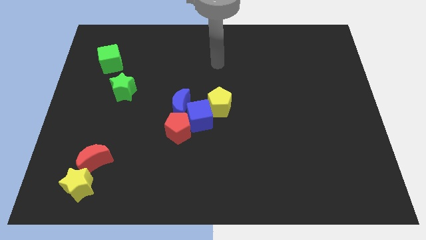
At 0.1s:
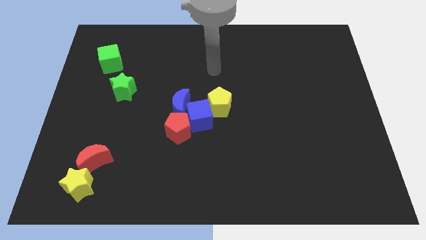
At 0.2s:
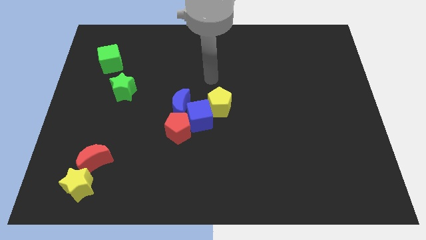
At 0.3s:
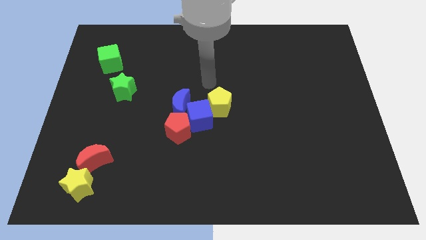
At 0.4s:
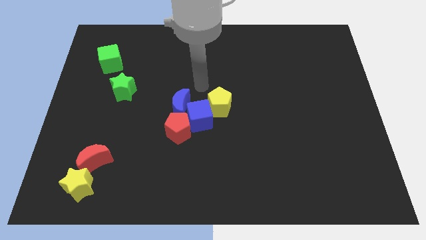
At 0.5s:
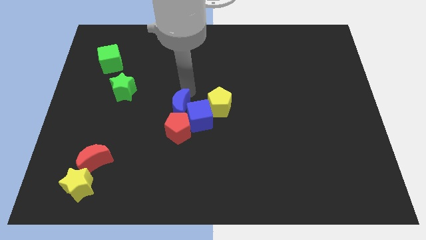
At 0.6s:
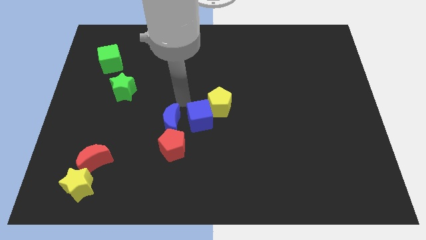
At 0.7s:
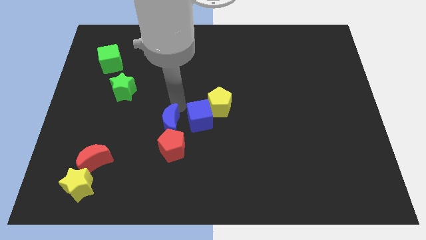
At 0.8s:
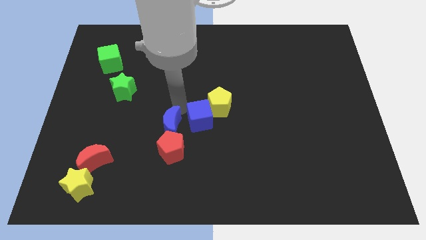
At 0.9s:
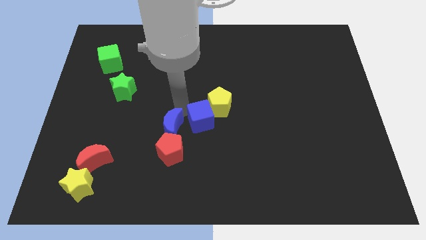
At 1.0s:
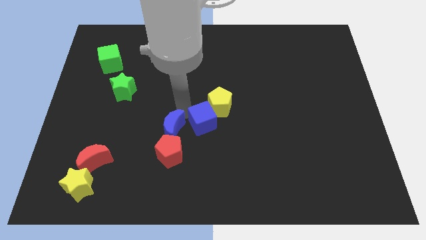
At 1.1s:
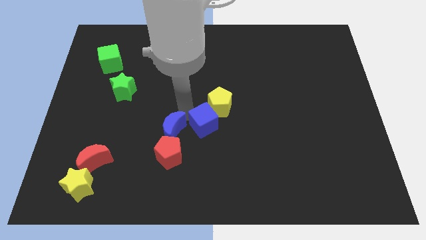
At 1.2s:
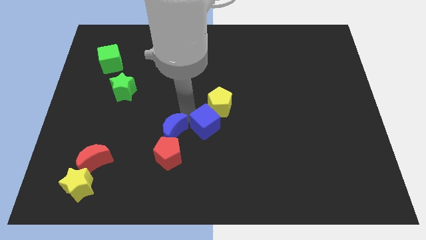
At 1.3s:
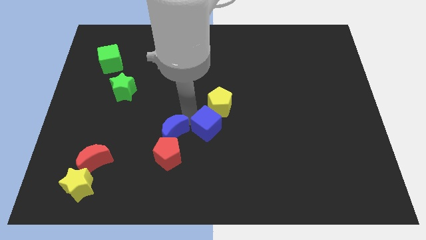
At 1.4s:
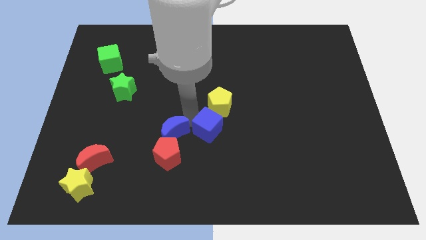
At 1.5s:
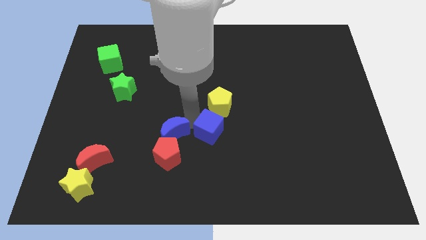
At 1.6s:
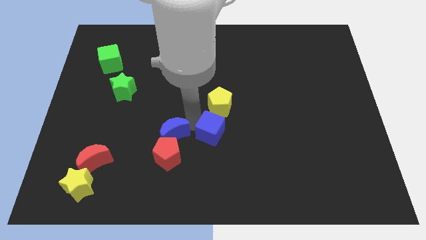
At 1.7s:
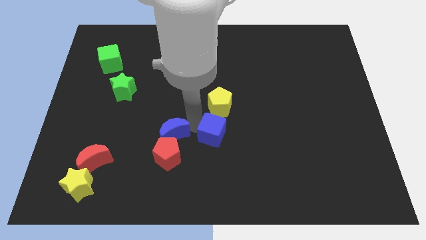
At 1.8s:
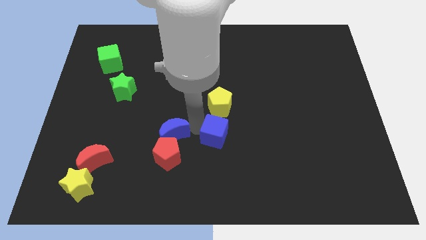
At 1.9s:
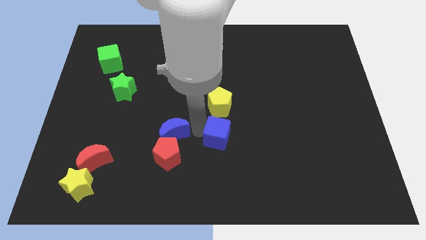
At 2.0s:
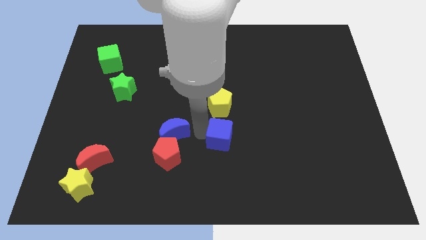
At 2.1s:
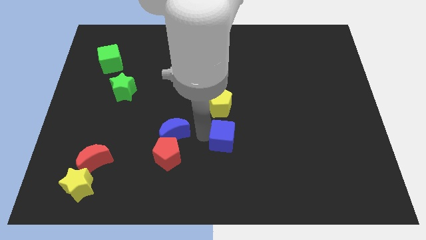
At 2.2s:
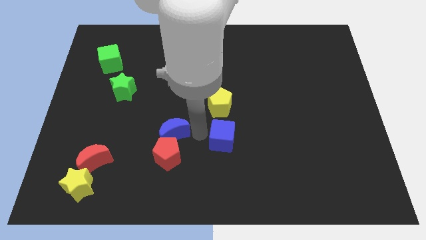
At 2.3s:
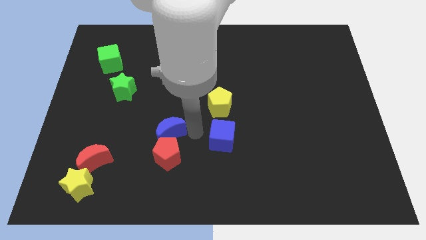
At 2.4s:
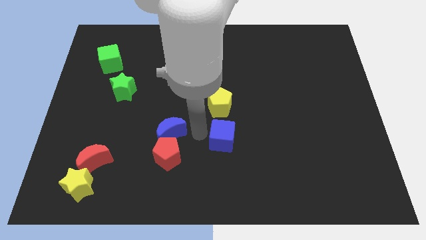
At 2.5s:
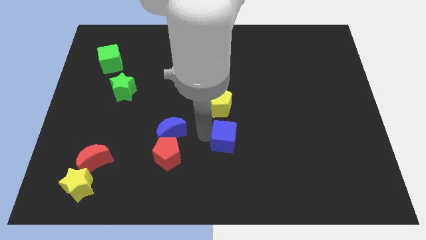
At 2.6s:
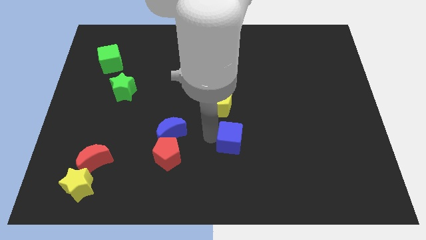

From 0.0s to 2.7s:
pull the blue cube apart from the blue moon, red pentagon, and yellow pentagon

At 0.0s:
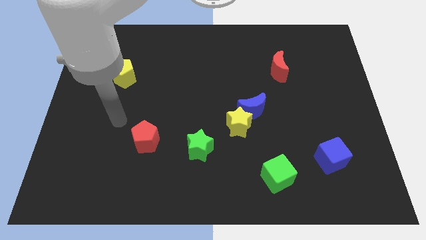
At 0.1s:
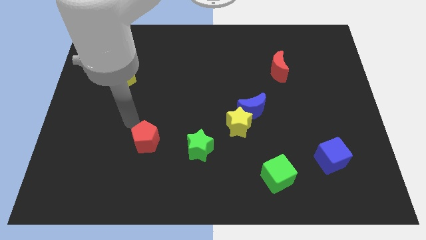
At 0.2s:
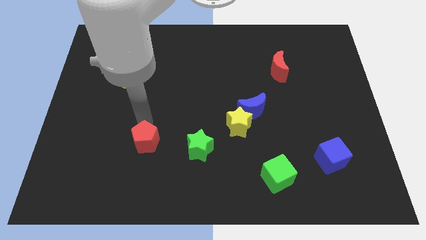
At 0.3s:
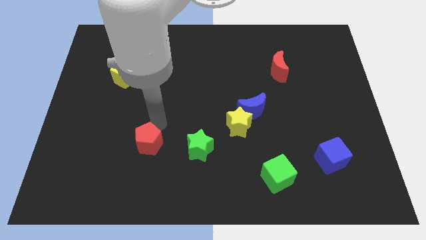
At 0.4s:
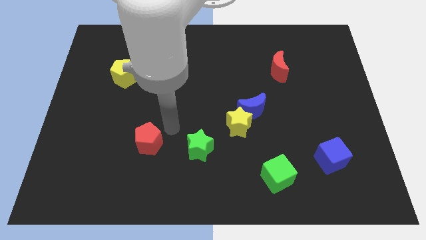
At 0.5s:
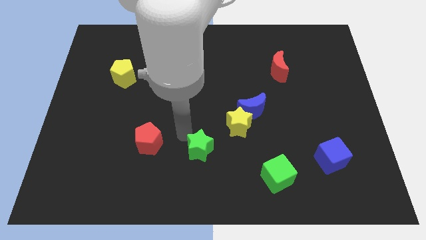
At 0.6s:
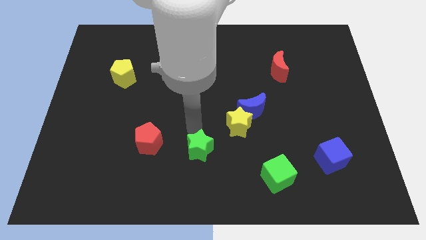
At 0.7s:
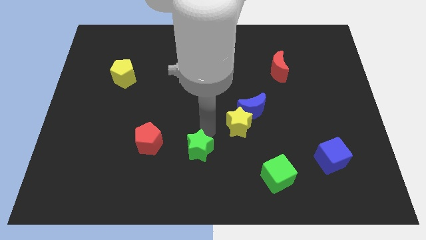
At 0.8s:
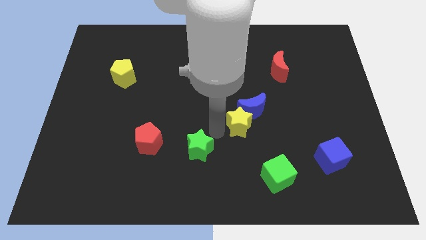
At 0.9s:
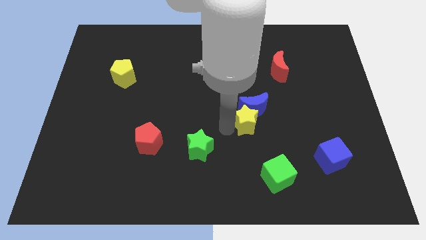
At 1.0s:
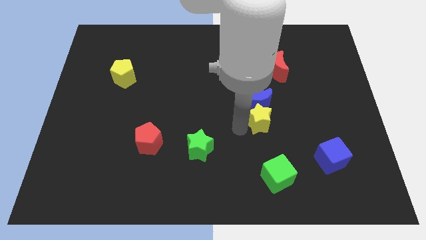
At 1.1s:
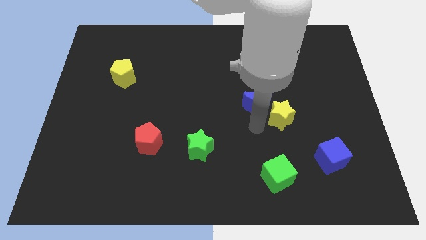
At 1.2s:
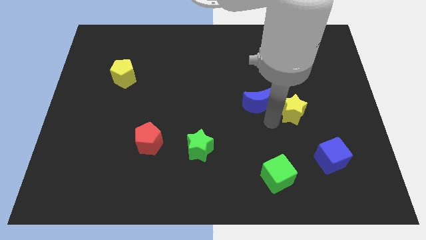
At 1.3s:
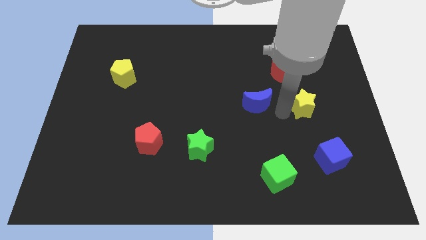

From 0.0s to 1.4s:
separate the blue moon from the yellow star

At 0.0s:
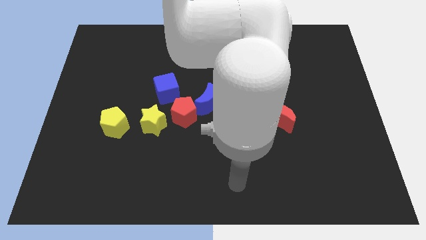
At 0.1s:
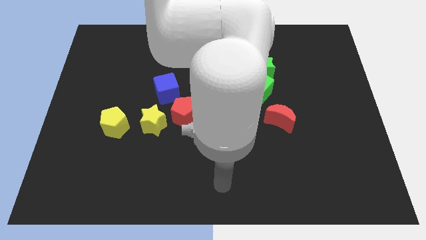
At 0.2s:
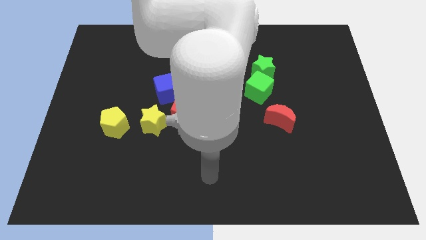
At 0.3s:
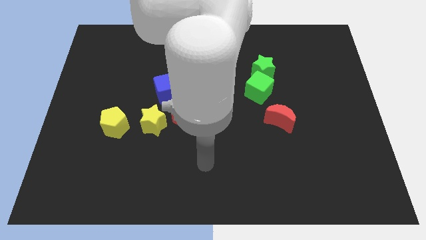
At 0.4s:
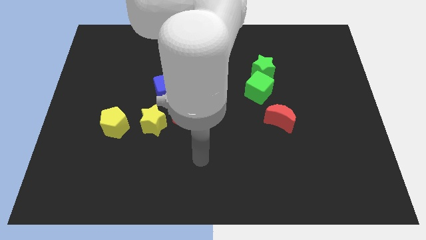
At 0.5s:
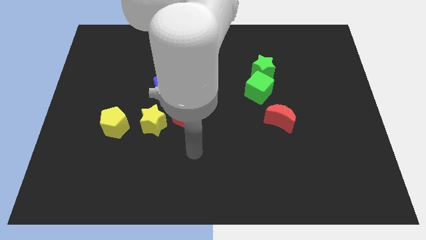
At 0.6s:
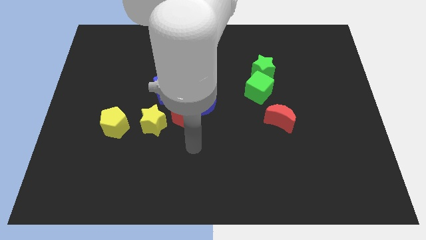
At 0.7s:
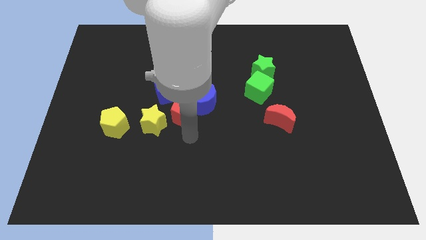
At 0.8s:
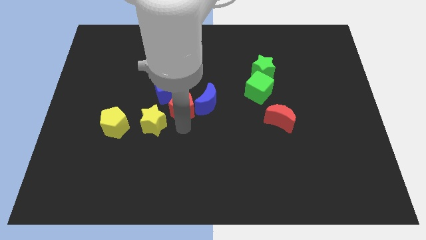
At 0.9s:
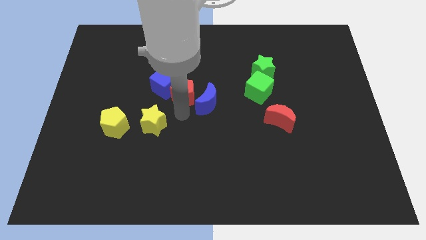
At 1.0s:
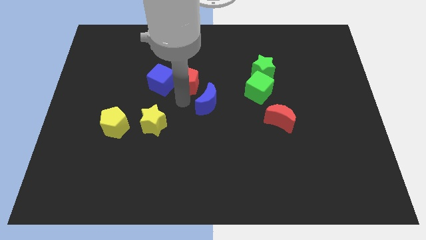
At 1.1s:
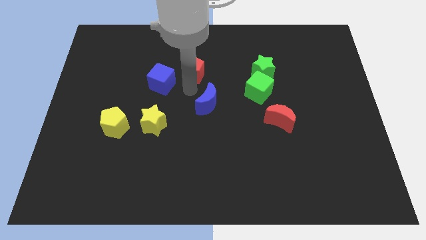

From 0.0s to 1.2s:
separate the blue moon from the red pentagon

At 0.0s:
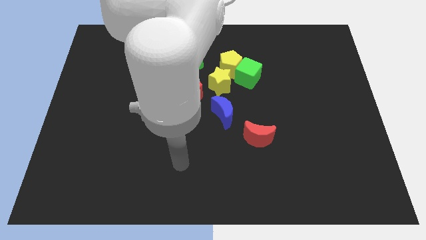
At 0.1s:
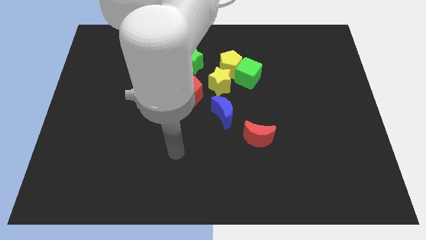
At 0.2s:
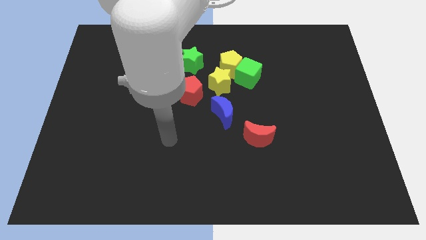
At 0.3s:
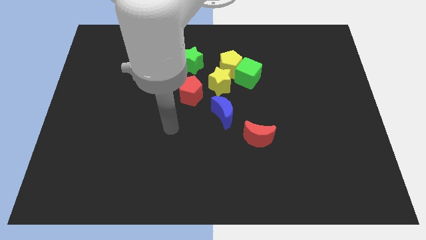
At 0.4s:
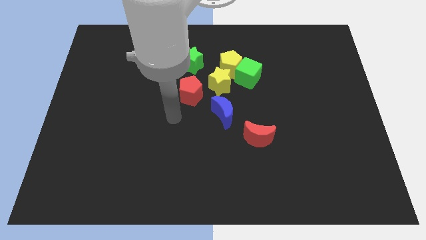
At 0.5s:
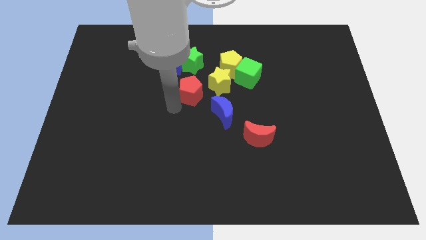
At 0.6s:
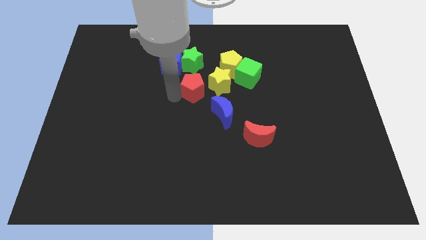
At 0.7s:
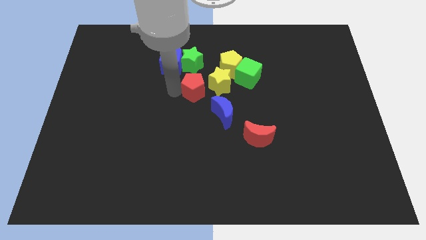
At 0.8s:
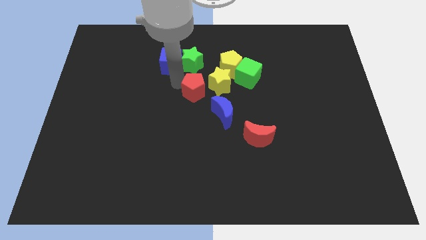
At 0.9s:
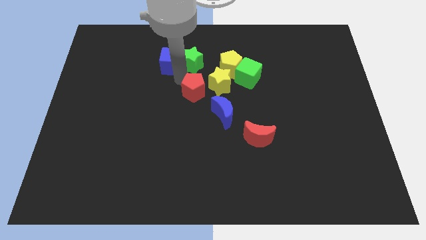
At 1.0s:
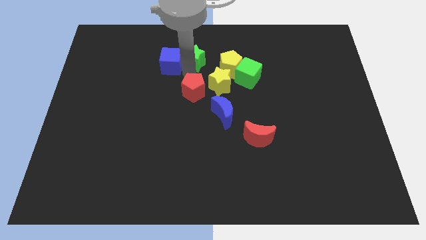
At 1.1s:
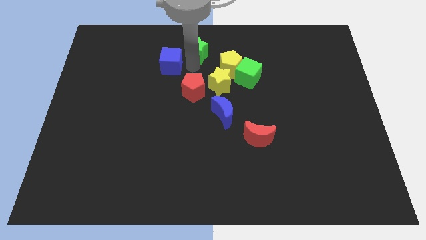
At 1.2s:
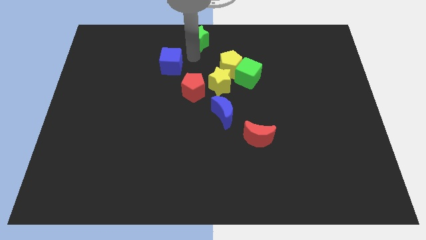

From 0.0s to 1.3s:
separate the blue cube from the green star

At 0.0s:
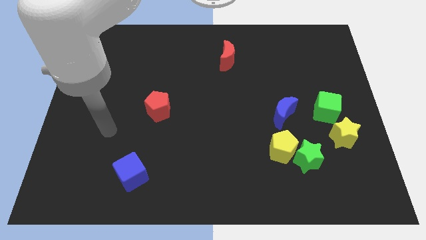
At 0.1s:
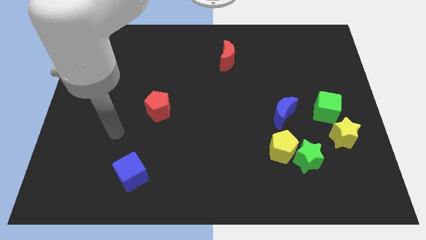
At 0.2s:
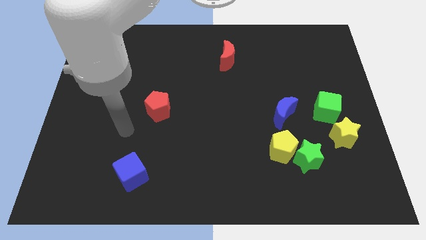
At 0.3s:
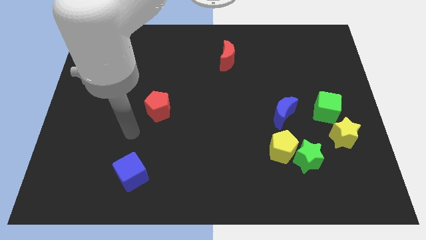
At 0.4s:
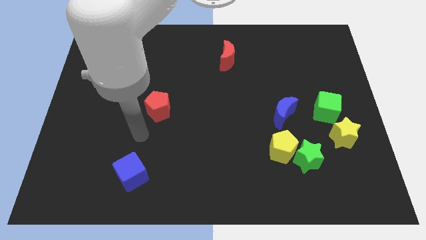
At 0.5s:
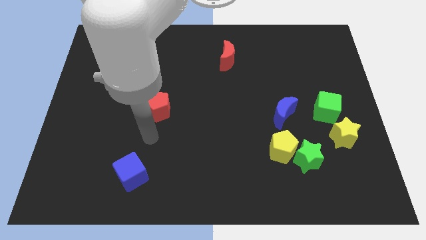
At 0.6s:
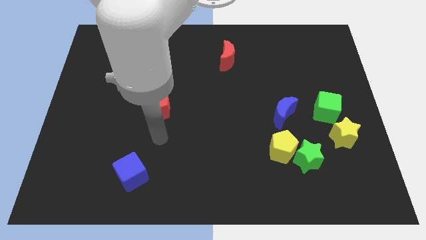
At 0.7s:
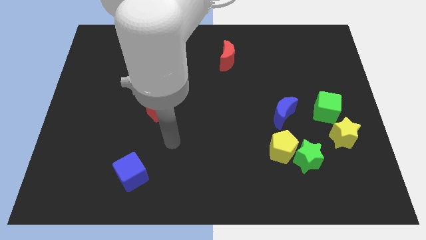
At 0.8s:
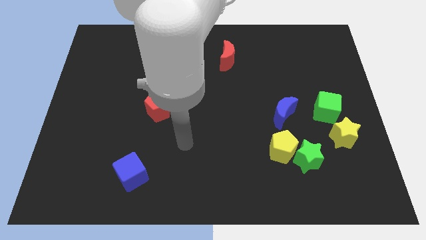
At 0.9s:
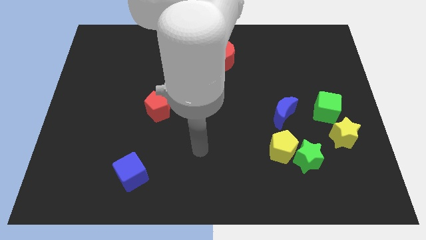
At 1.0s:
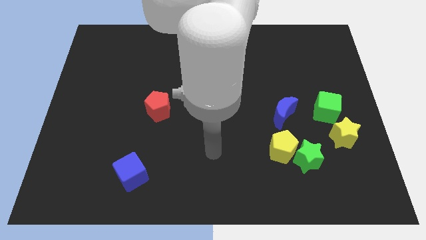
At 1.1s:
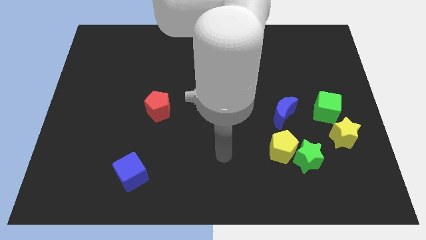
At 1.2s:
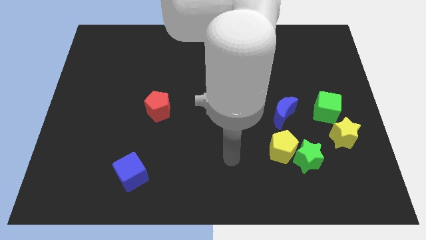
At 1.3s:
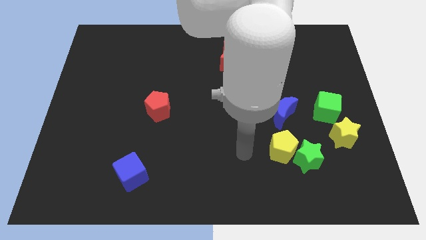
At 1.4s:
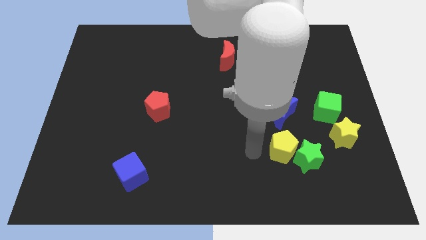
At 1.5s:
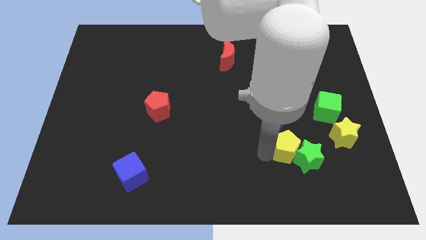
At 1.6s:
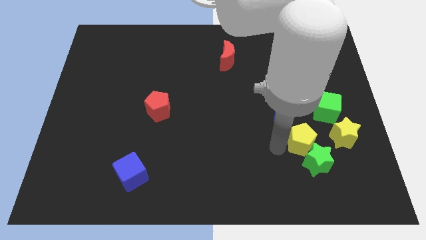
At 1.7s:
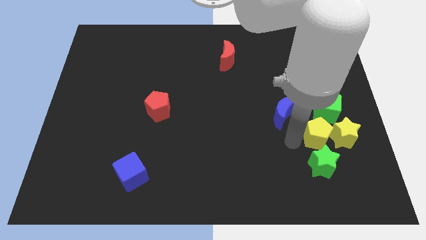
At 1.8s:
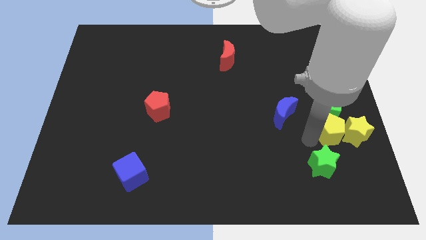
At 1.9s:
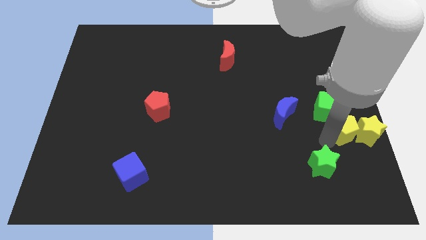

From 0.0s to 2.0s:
pull the green star apart from the yellow pentagon

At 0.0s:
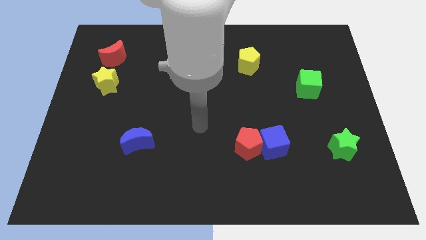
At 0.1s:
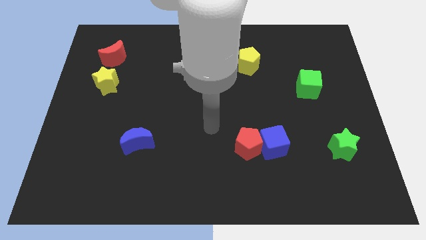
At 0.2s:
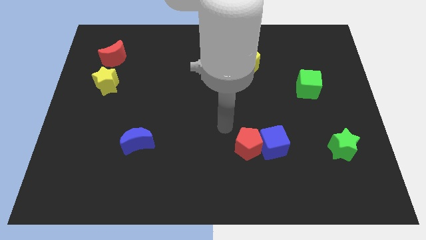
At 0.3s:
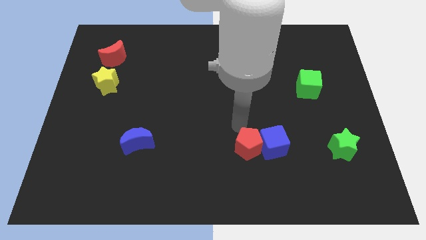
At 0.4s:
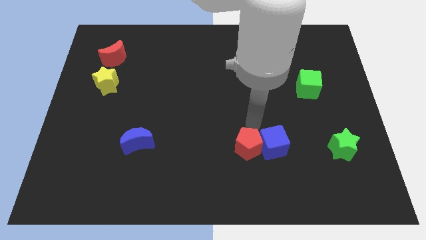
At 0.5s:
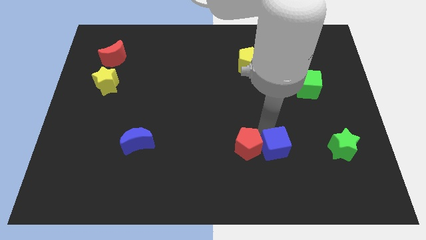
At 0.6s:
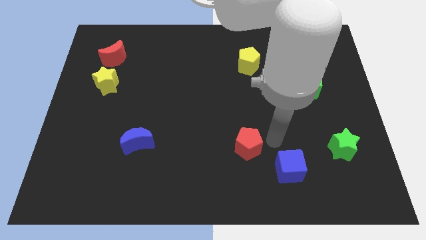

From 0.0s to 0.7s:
move the red pentagon away from the blue cube
